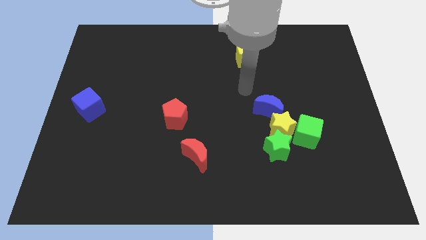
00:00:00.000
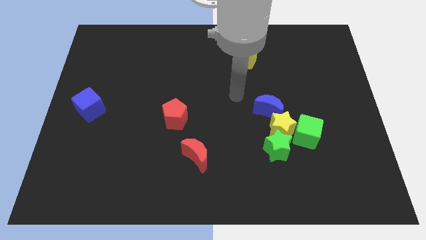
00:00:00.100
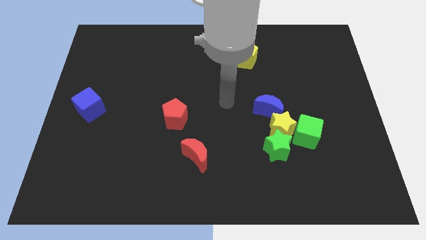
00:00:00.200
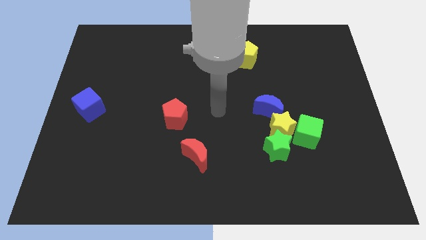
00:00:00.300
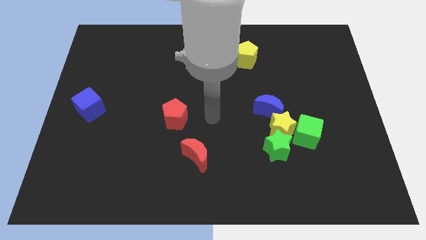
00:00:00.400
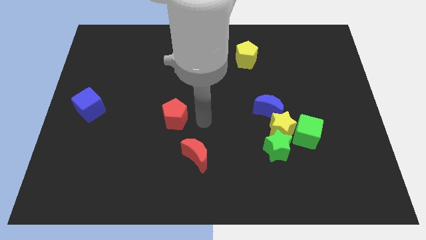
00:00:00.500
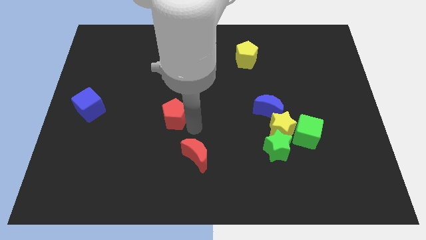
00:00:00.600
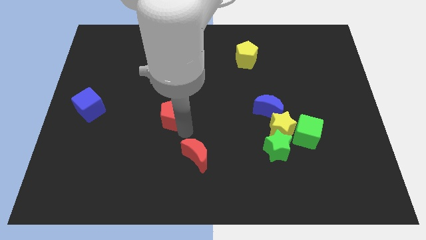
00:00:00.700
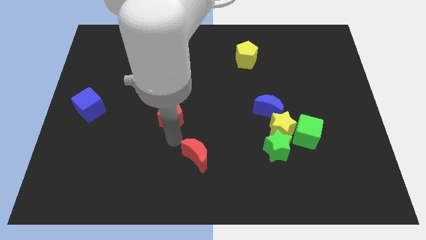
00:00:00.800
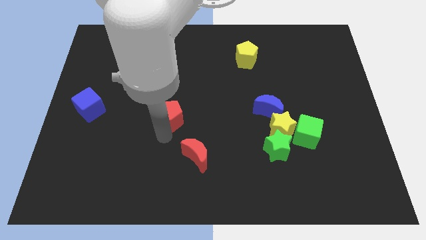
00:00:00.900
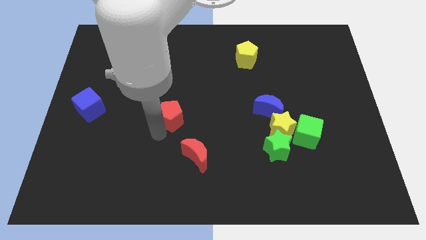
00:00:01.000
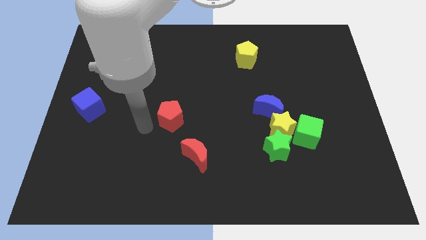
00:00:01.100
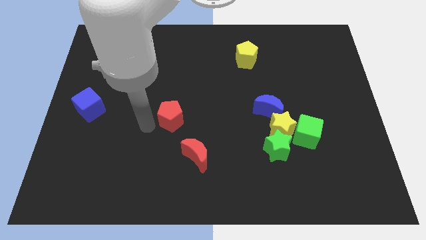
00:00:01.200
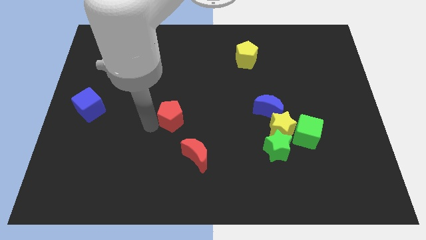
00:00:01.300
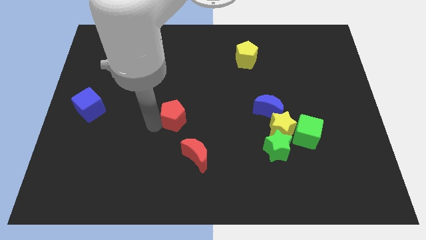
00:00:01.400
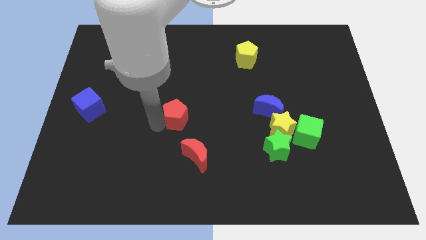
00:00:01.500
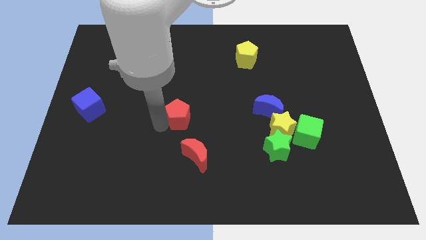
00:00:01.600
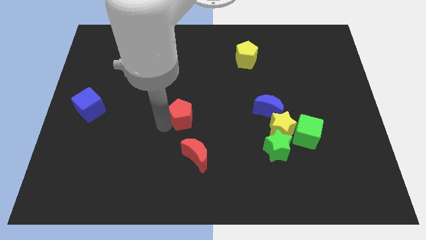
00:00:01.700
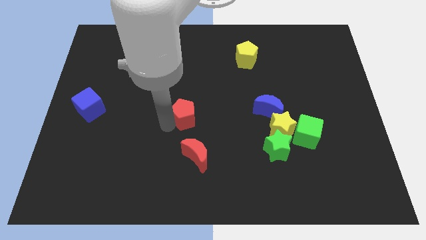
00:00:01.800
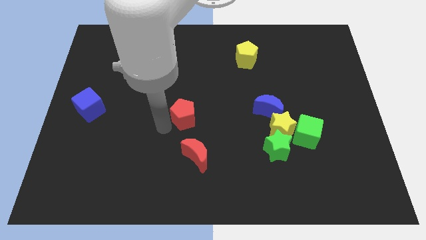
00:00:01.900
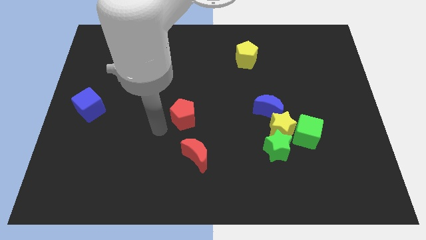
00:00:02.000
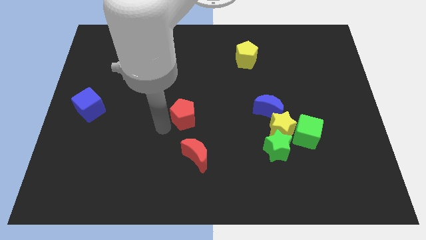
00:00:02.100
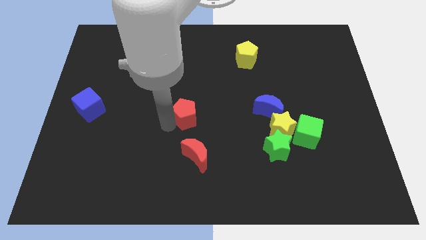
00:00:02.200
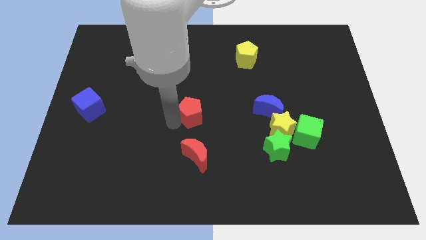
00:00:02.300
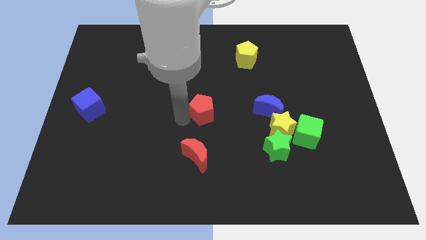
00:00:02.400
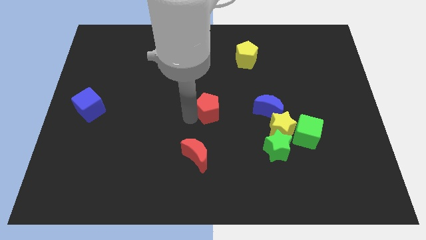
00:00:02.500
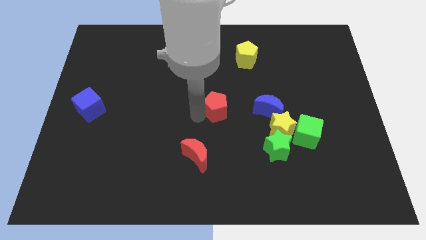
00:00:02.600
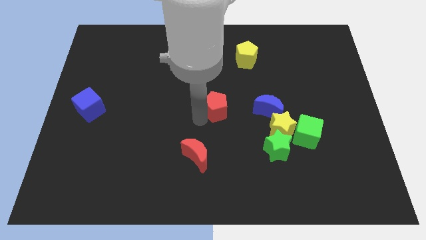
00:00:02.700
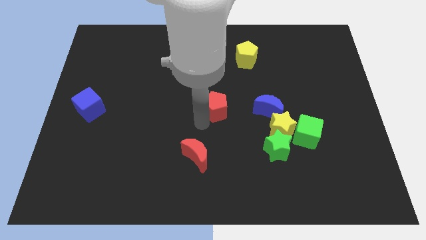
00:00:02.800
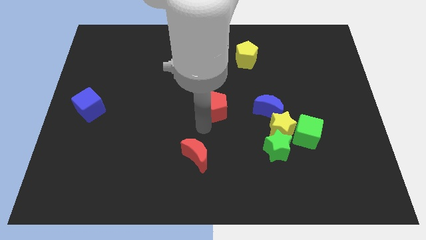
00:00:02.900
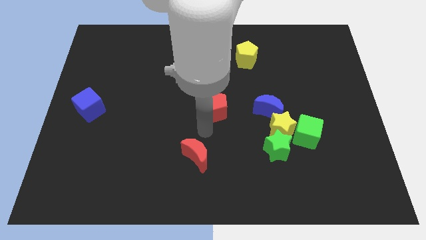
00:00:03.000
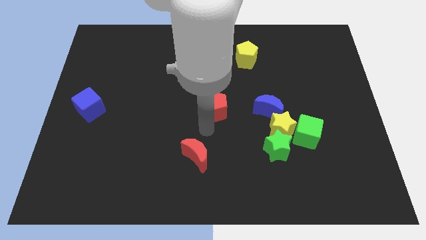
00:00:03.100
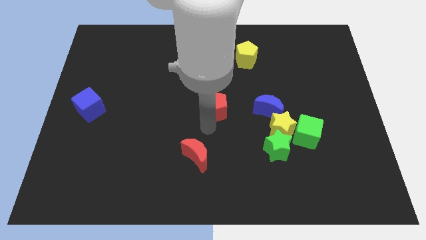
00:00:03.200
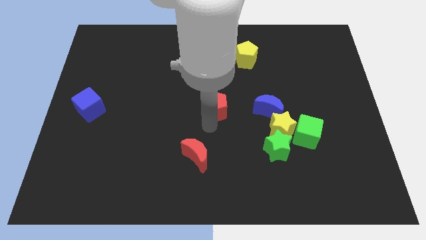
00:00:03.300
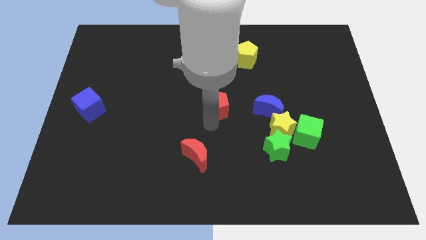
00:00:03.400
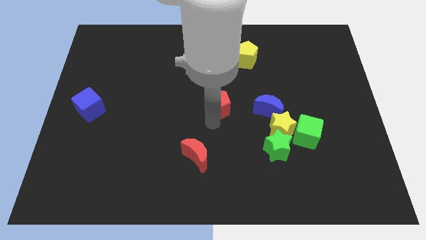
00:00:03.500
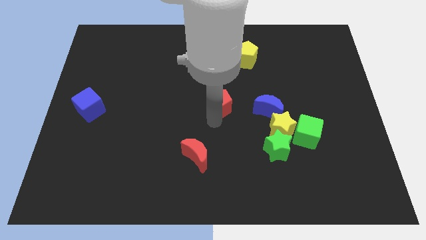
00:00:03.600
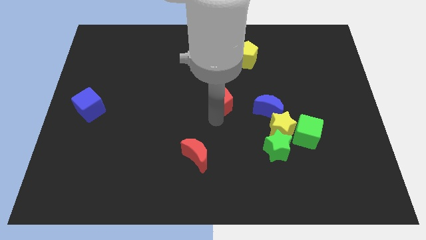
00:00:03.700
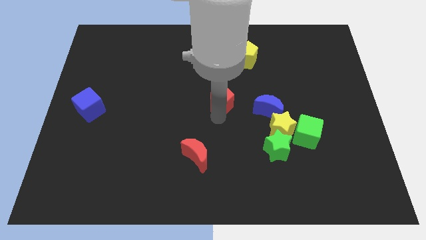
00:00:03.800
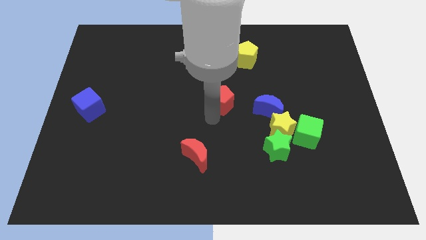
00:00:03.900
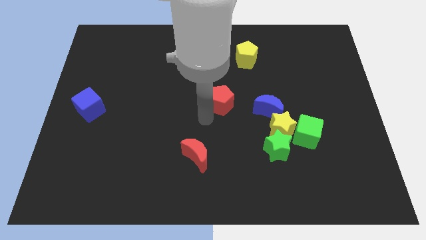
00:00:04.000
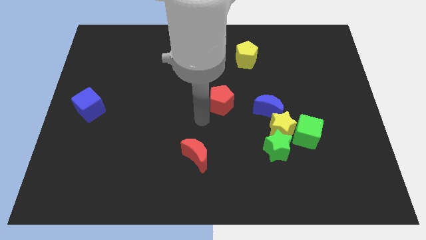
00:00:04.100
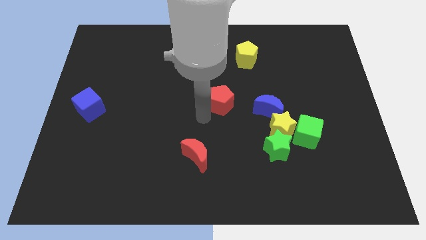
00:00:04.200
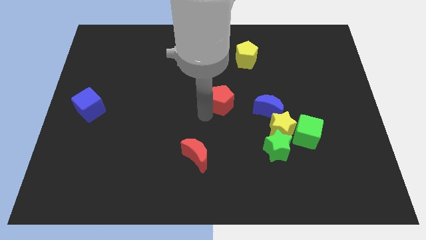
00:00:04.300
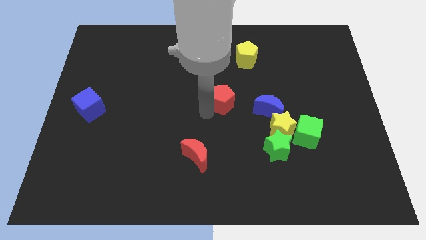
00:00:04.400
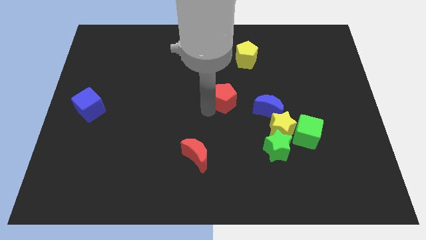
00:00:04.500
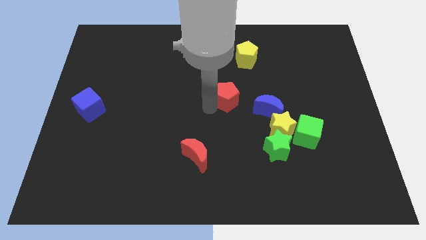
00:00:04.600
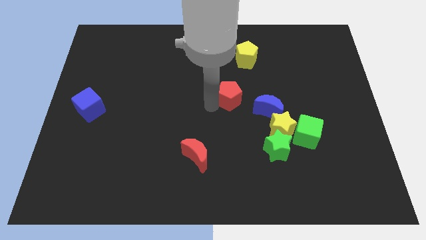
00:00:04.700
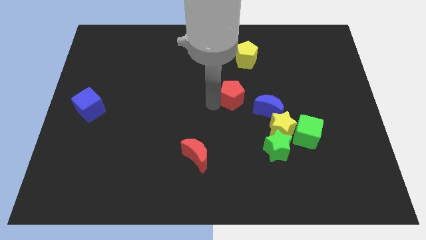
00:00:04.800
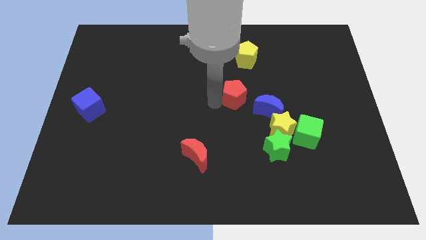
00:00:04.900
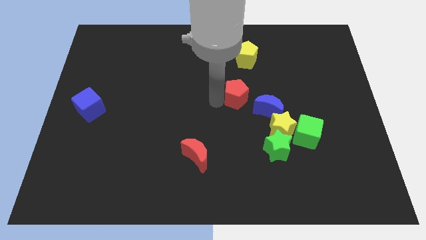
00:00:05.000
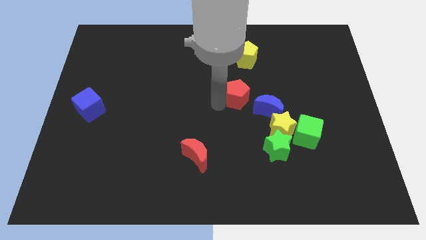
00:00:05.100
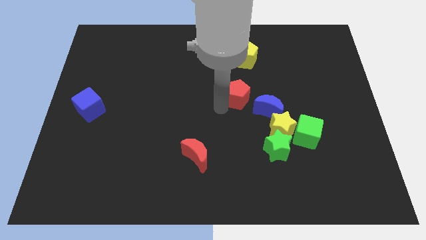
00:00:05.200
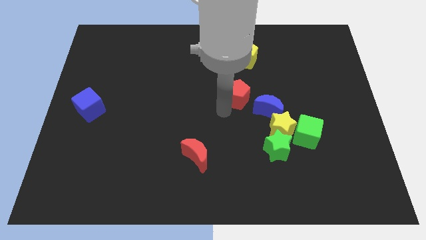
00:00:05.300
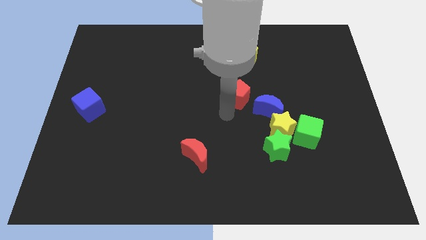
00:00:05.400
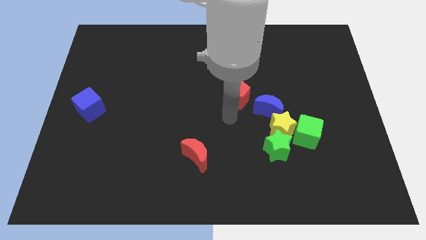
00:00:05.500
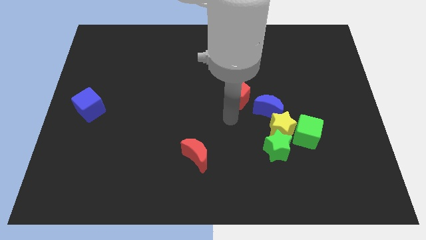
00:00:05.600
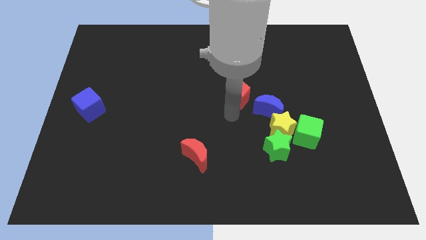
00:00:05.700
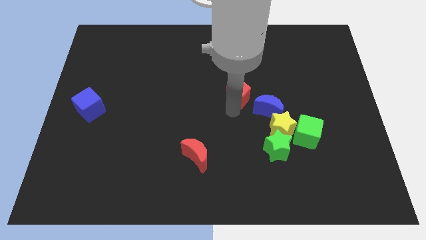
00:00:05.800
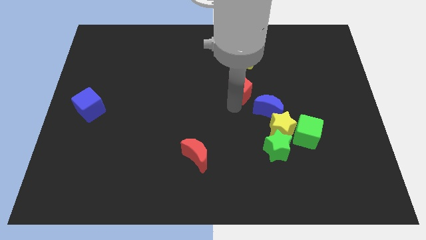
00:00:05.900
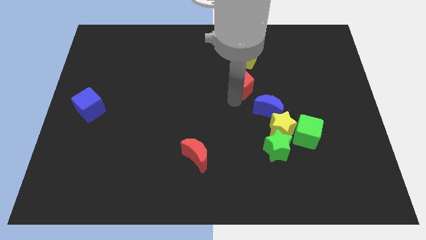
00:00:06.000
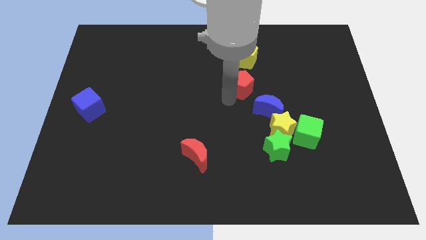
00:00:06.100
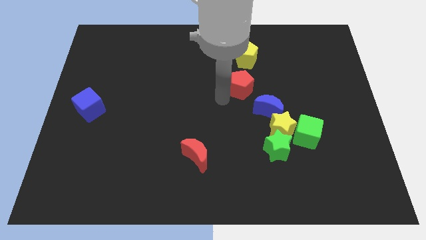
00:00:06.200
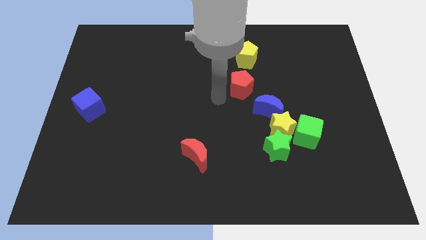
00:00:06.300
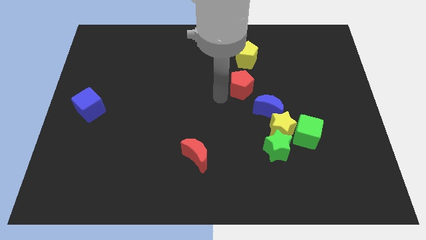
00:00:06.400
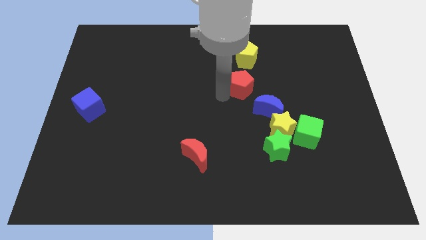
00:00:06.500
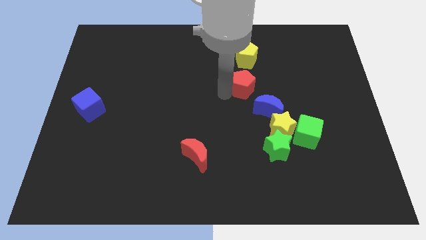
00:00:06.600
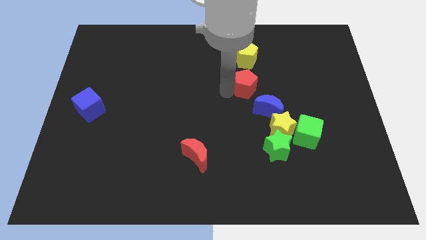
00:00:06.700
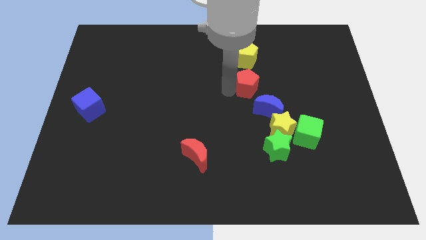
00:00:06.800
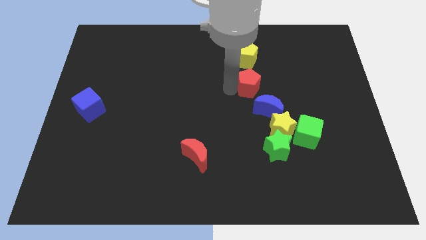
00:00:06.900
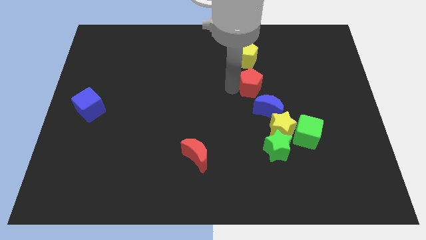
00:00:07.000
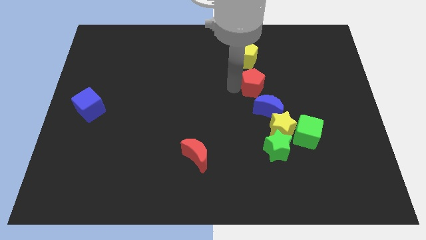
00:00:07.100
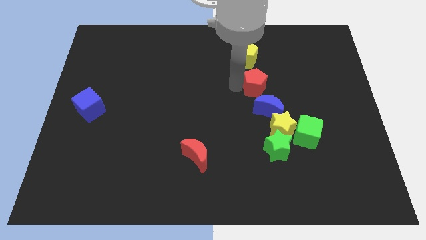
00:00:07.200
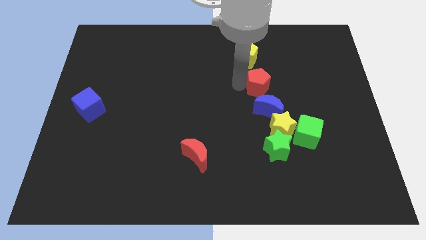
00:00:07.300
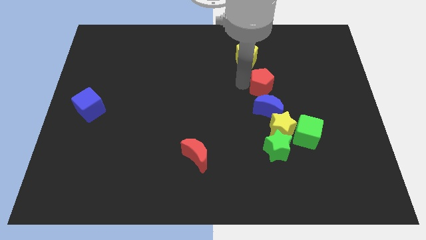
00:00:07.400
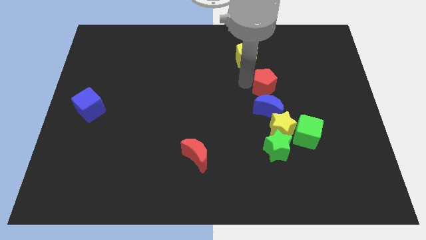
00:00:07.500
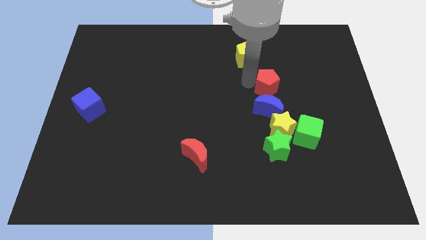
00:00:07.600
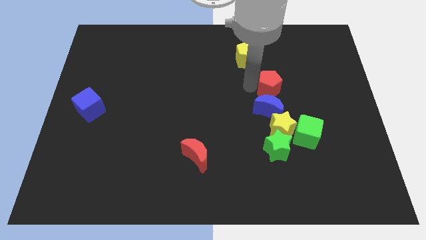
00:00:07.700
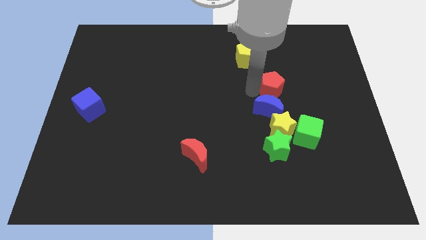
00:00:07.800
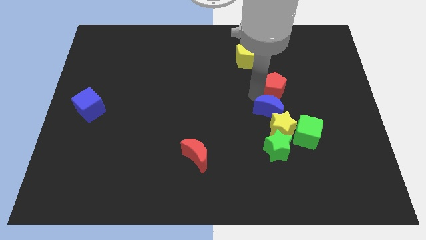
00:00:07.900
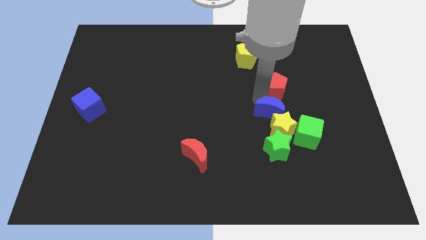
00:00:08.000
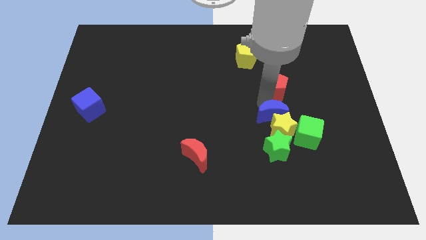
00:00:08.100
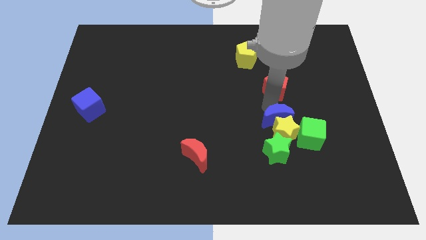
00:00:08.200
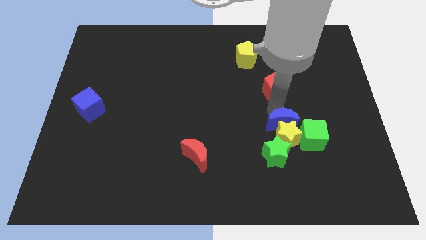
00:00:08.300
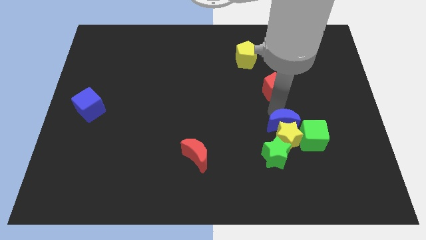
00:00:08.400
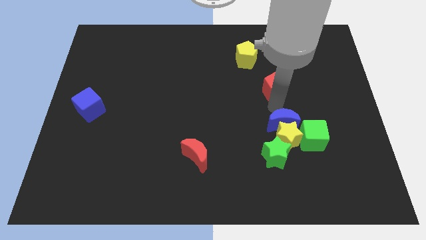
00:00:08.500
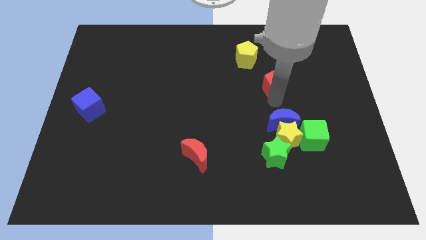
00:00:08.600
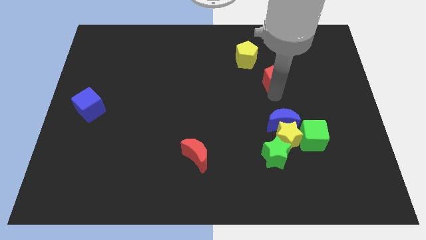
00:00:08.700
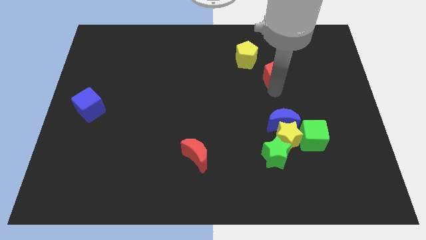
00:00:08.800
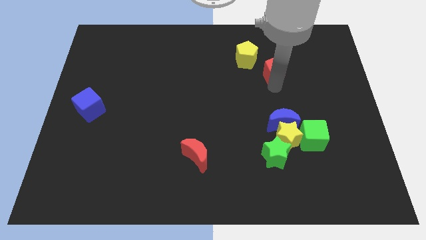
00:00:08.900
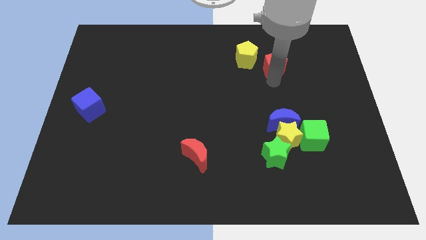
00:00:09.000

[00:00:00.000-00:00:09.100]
push the red pentagon right of the yellow pentagon
